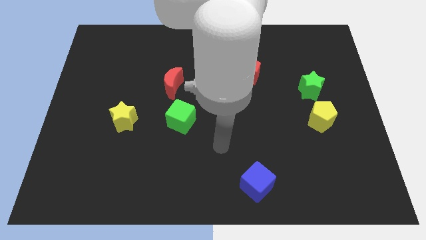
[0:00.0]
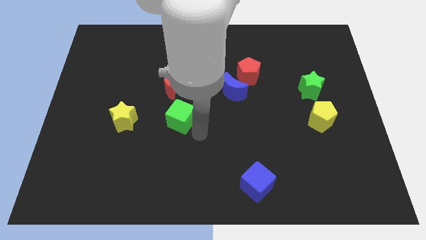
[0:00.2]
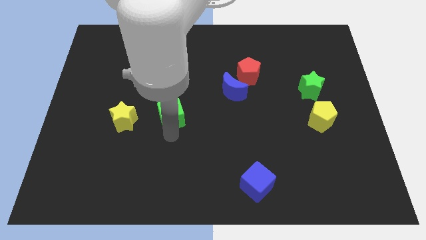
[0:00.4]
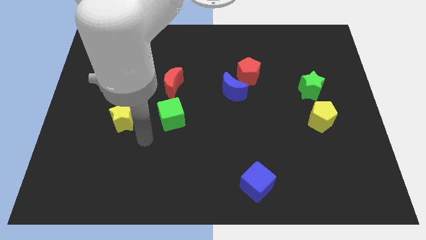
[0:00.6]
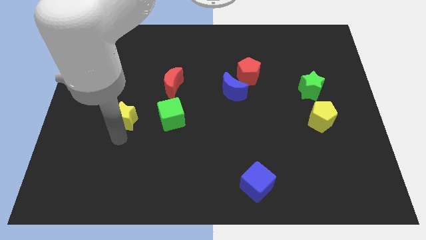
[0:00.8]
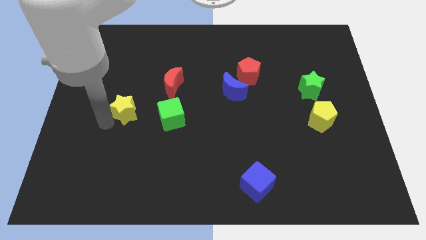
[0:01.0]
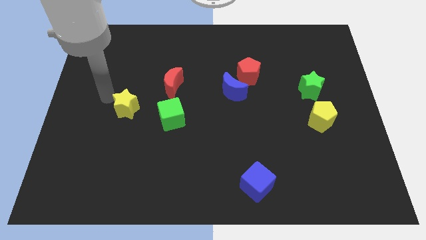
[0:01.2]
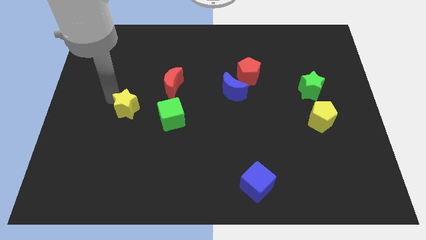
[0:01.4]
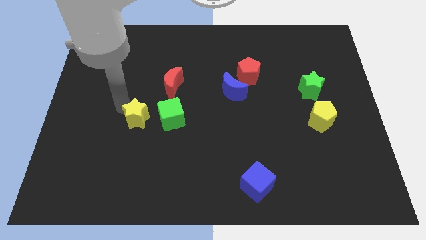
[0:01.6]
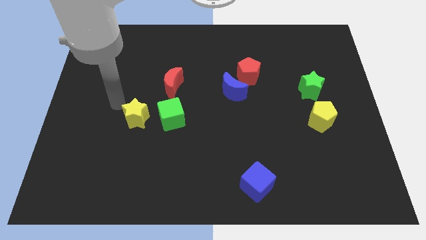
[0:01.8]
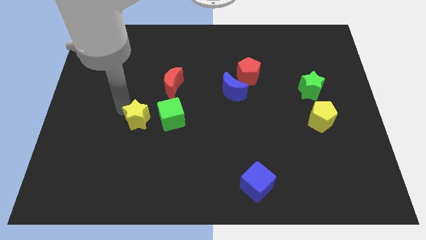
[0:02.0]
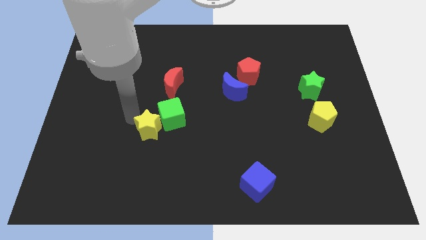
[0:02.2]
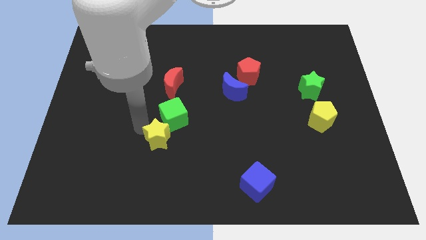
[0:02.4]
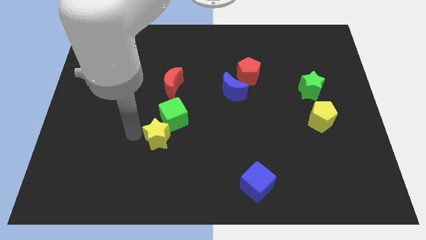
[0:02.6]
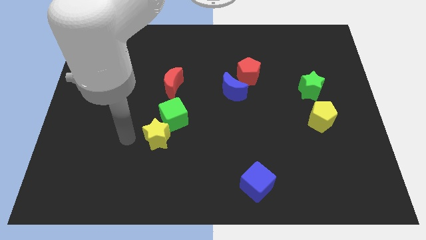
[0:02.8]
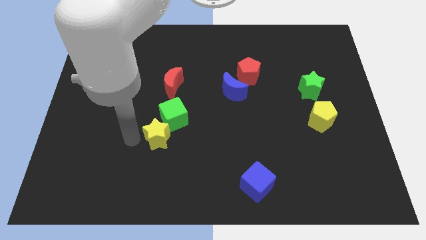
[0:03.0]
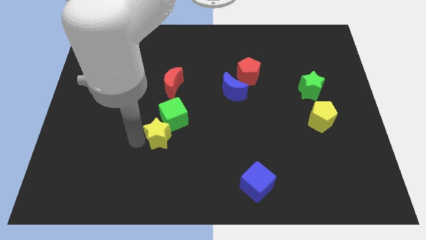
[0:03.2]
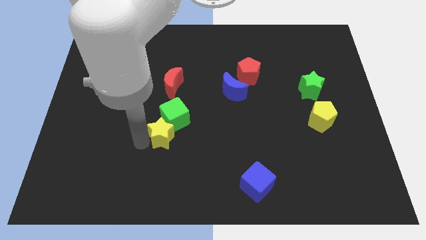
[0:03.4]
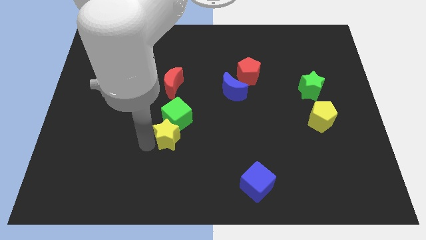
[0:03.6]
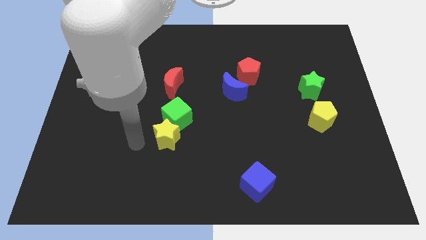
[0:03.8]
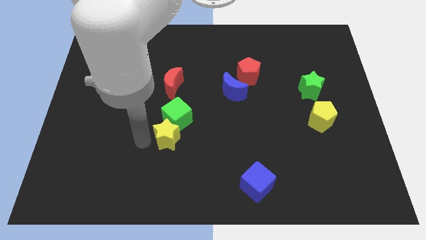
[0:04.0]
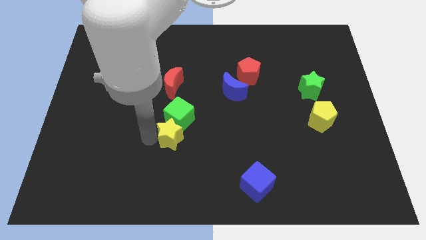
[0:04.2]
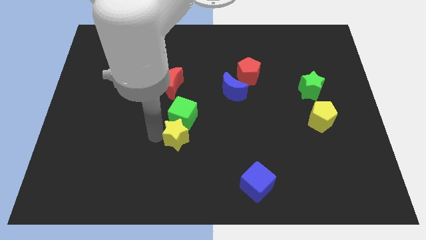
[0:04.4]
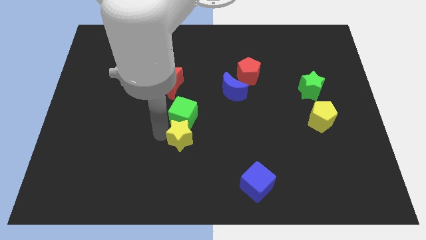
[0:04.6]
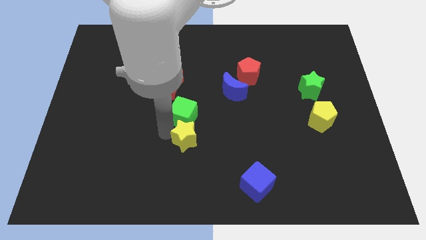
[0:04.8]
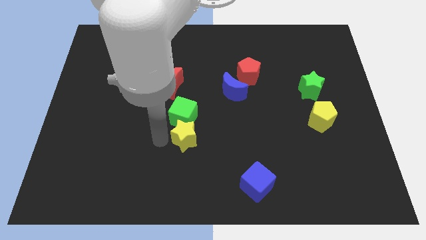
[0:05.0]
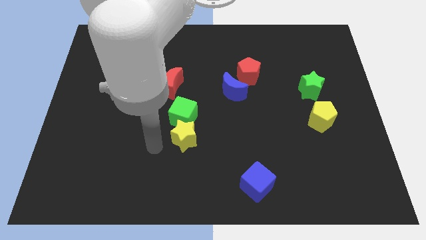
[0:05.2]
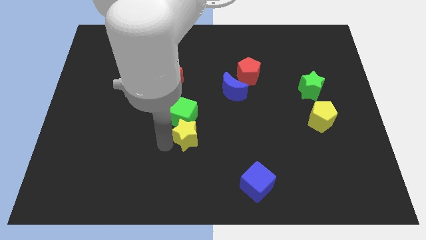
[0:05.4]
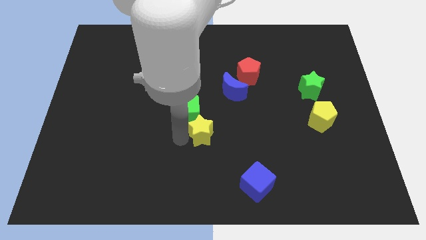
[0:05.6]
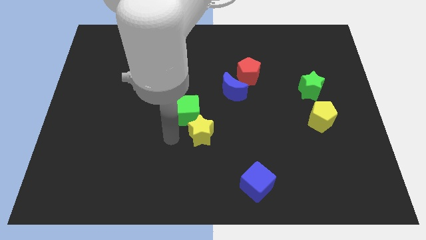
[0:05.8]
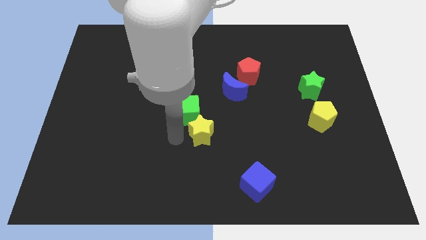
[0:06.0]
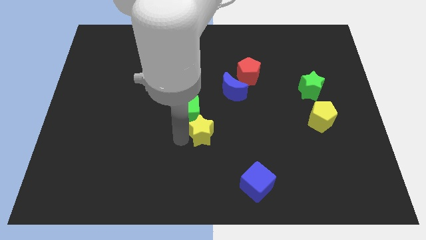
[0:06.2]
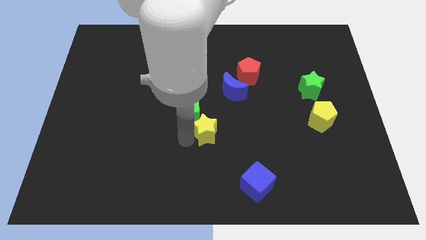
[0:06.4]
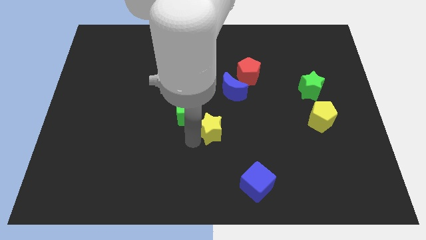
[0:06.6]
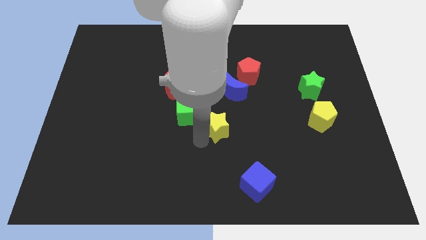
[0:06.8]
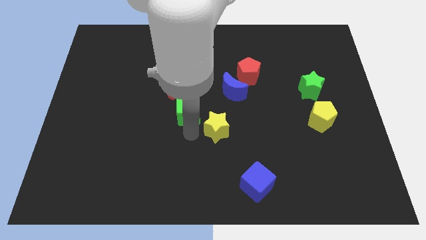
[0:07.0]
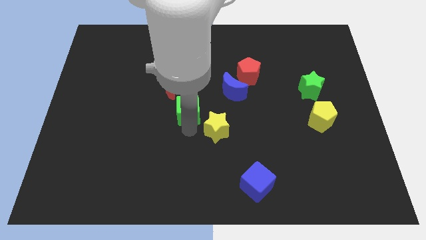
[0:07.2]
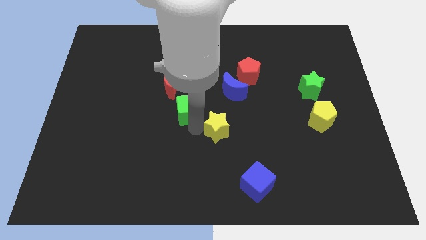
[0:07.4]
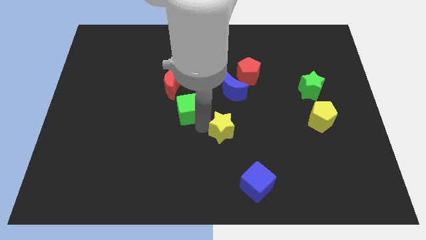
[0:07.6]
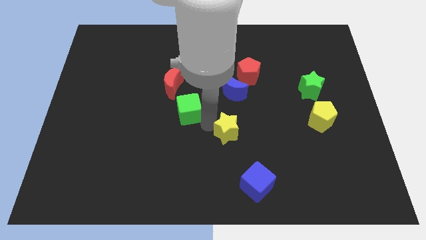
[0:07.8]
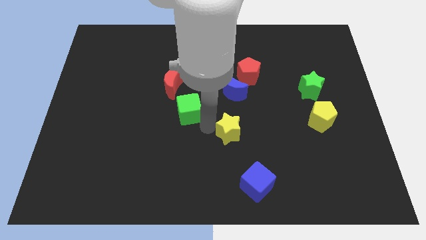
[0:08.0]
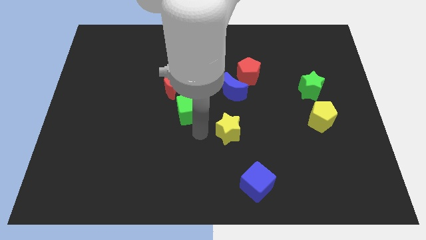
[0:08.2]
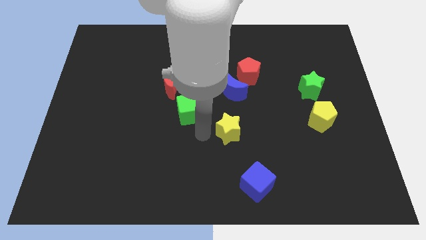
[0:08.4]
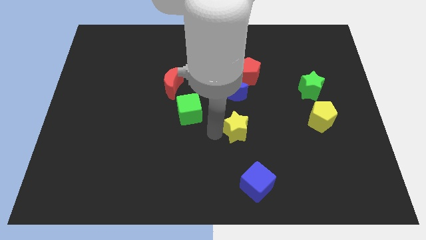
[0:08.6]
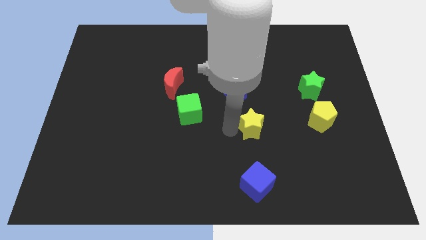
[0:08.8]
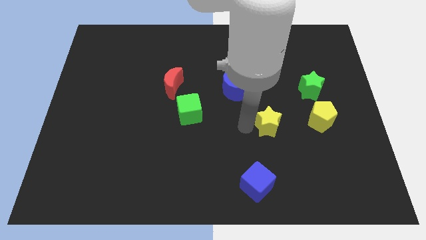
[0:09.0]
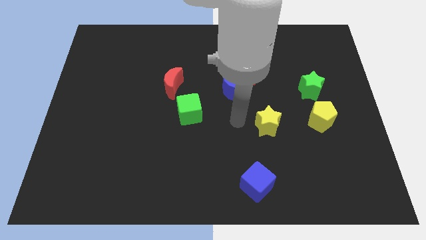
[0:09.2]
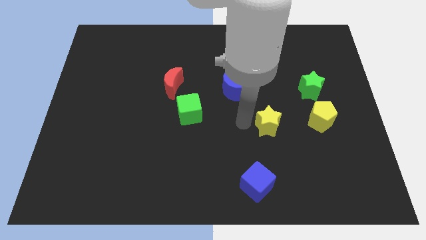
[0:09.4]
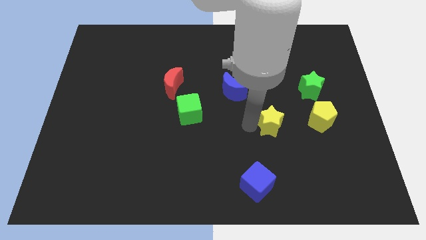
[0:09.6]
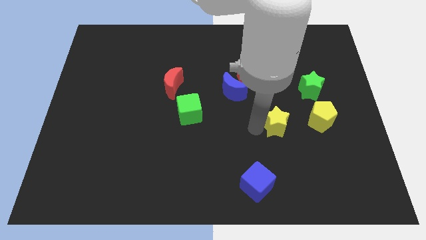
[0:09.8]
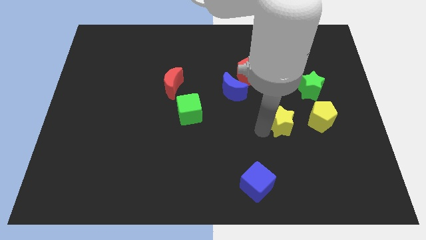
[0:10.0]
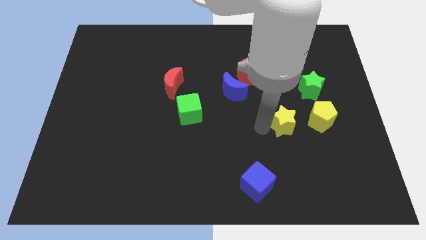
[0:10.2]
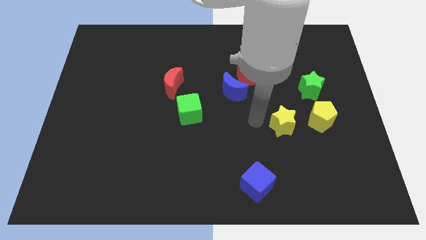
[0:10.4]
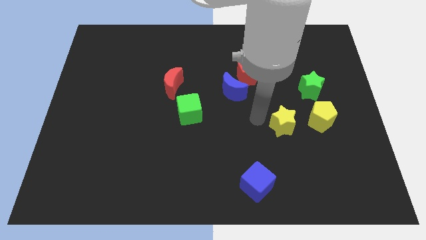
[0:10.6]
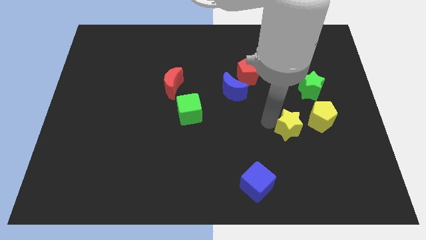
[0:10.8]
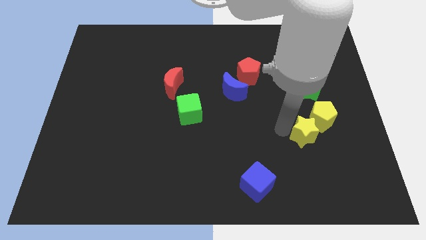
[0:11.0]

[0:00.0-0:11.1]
slide the yellow star to the bottom side of the green star

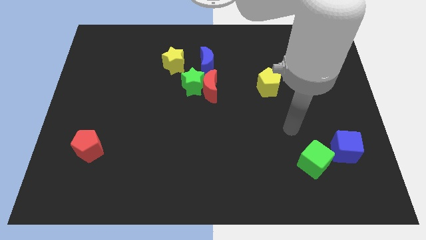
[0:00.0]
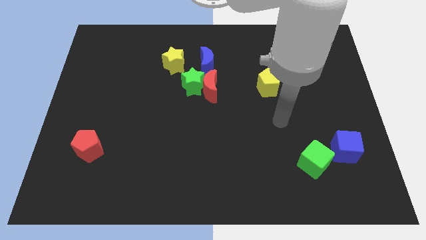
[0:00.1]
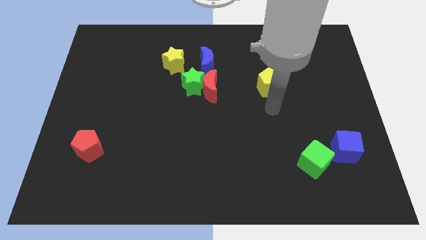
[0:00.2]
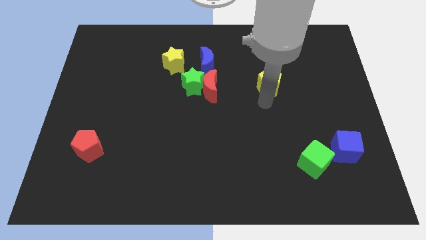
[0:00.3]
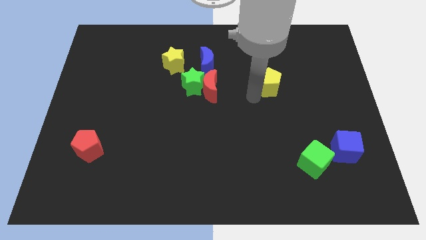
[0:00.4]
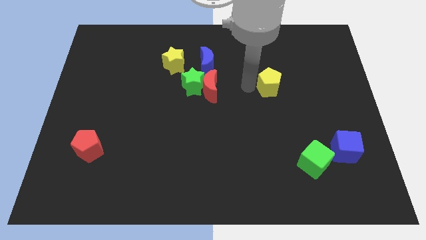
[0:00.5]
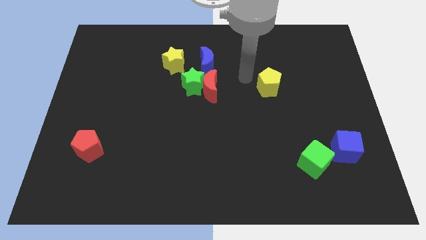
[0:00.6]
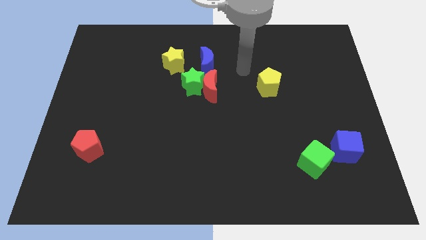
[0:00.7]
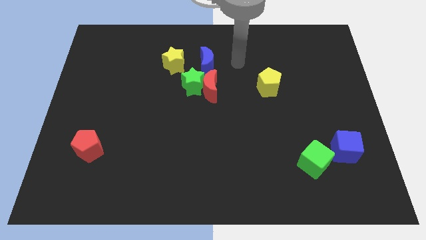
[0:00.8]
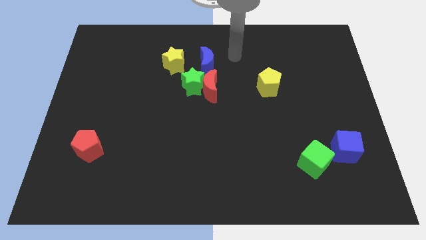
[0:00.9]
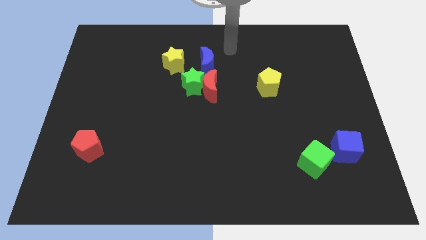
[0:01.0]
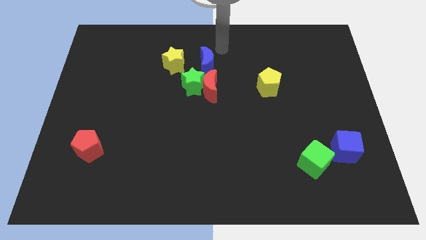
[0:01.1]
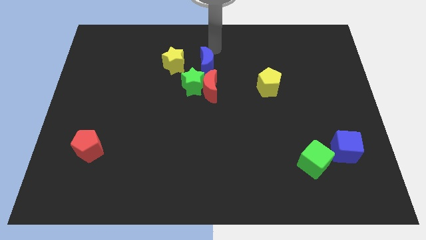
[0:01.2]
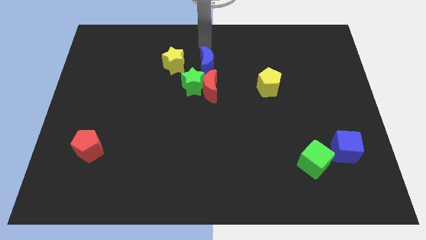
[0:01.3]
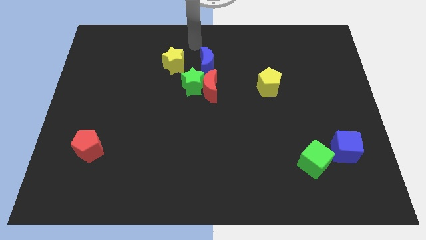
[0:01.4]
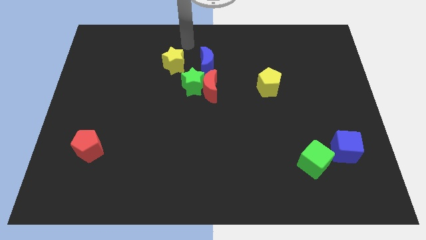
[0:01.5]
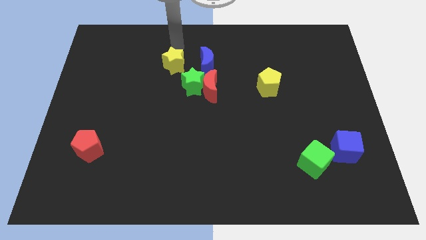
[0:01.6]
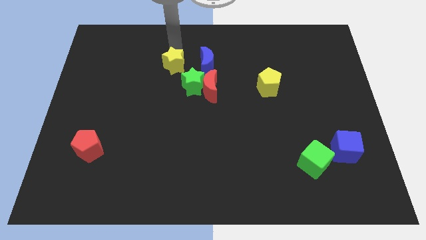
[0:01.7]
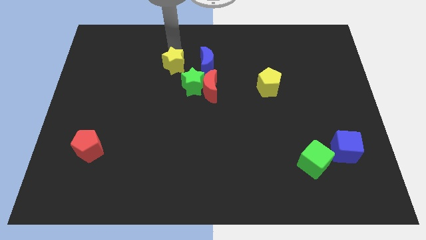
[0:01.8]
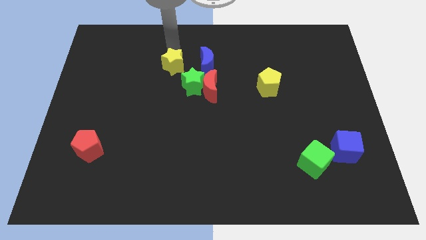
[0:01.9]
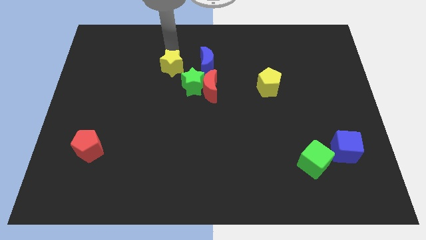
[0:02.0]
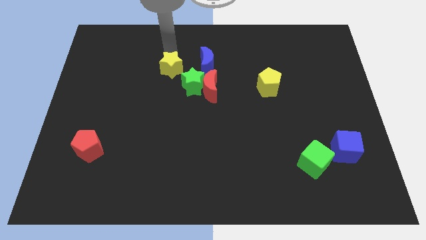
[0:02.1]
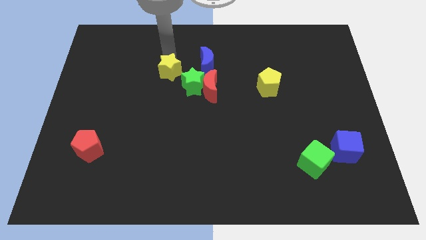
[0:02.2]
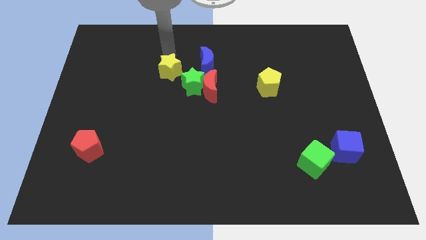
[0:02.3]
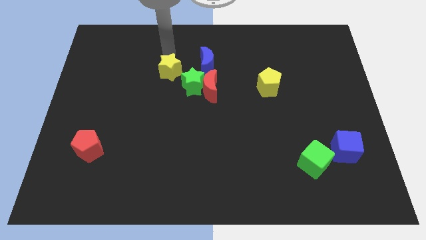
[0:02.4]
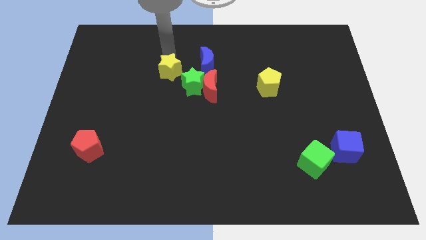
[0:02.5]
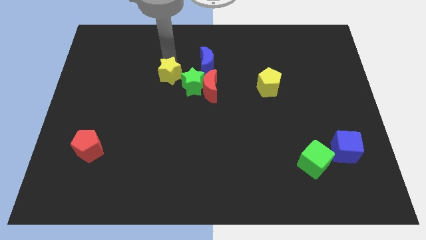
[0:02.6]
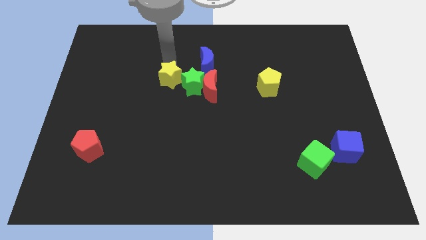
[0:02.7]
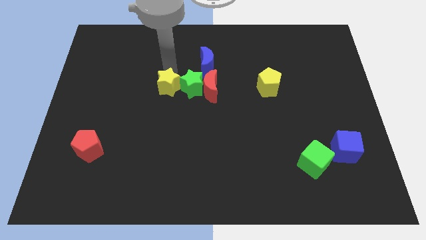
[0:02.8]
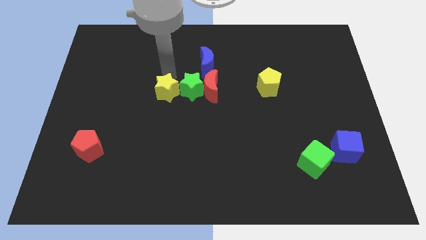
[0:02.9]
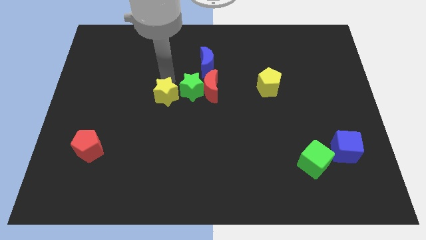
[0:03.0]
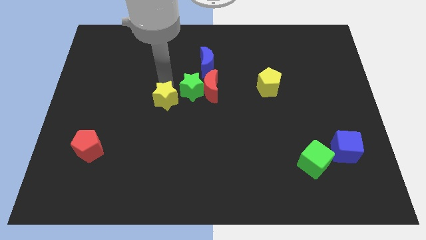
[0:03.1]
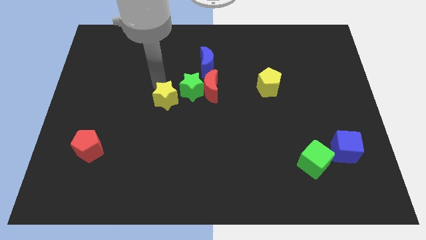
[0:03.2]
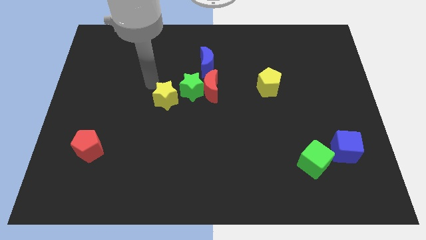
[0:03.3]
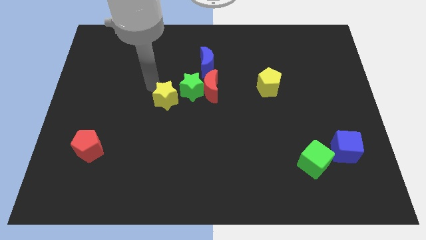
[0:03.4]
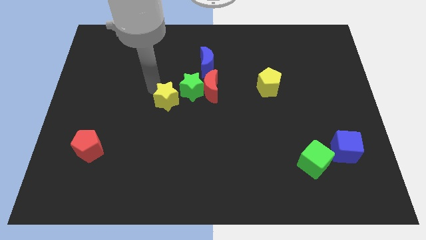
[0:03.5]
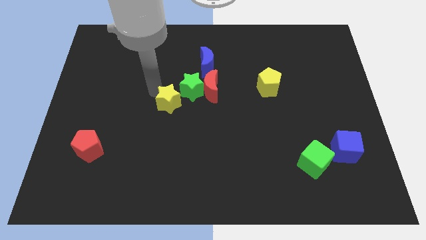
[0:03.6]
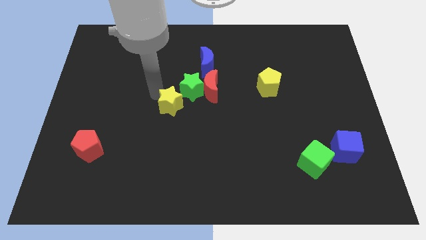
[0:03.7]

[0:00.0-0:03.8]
push the yellow star to the bottom of the green star
